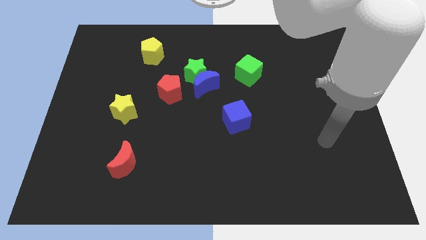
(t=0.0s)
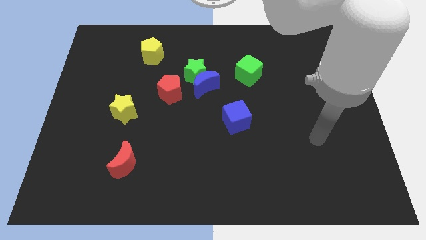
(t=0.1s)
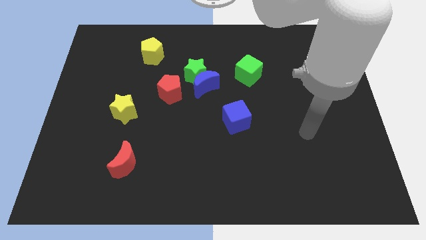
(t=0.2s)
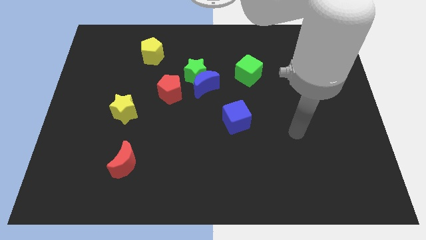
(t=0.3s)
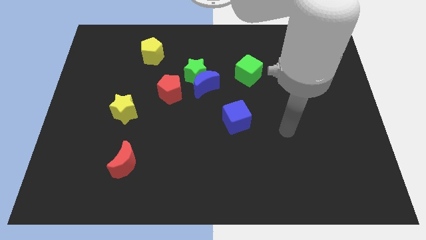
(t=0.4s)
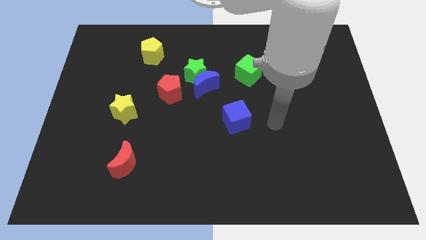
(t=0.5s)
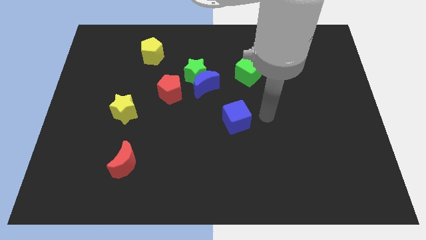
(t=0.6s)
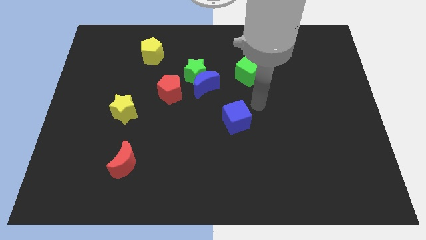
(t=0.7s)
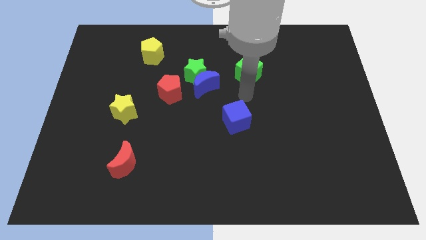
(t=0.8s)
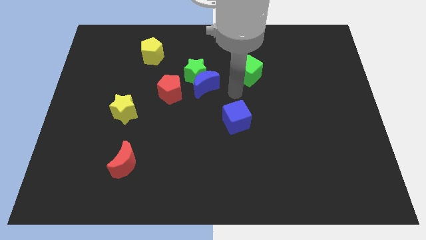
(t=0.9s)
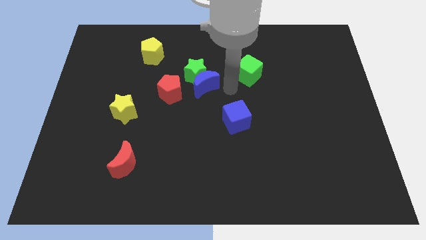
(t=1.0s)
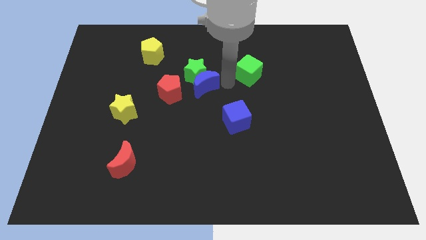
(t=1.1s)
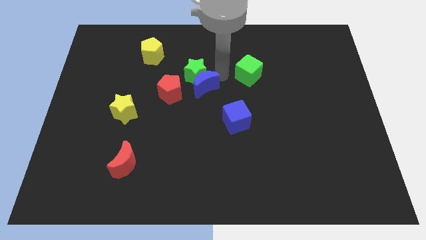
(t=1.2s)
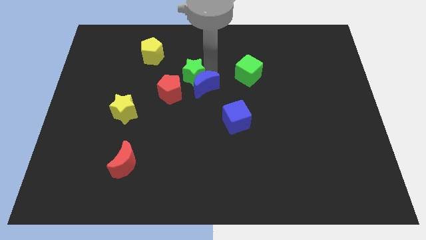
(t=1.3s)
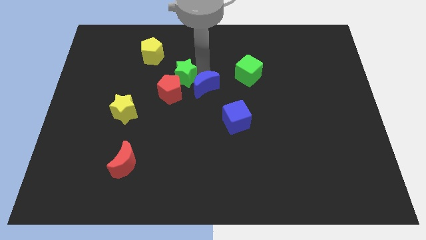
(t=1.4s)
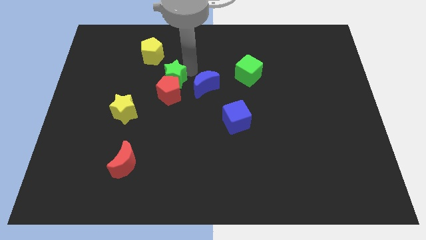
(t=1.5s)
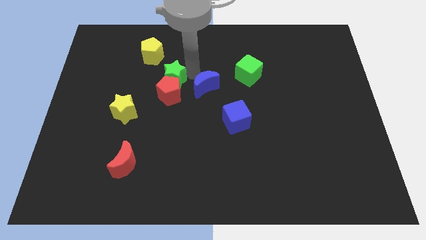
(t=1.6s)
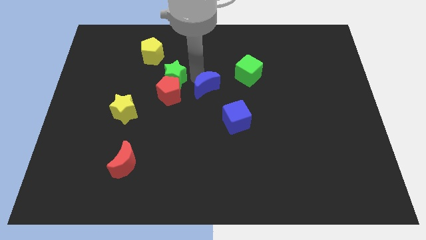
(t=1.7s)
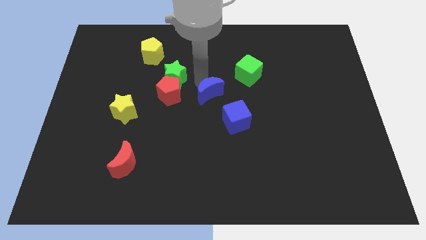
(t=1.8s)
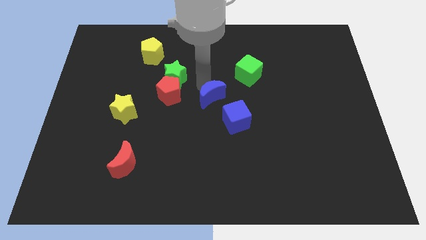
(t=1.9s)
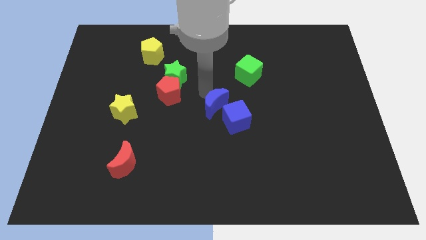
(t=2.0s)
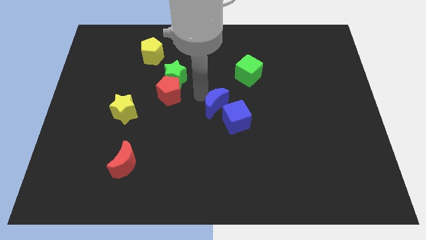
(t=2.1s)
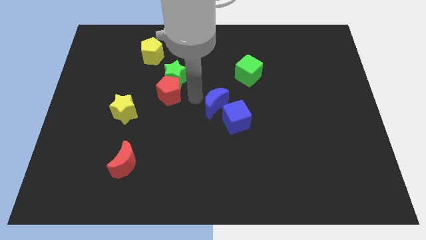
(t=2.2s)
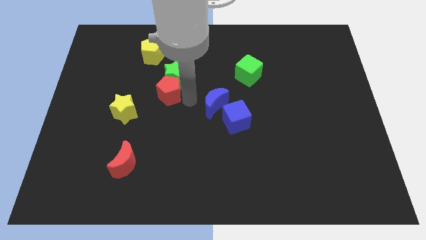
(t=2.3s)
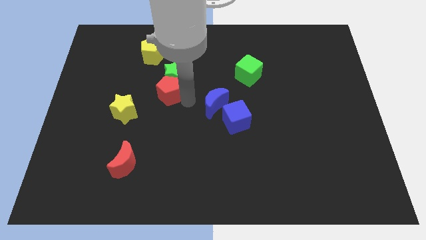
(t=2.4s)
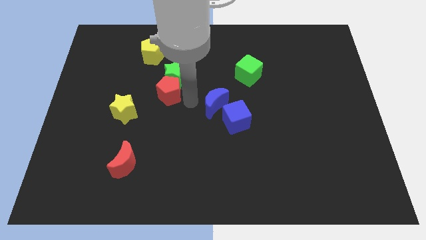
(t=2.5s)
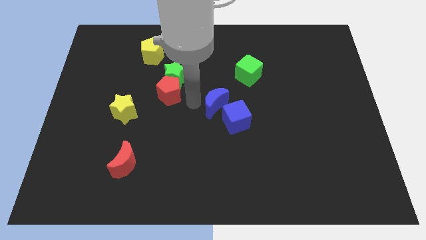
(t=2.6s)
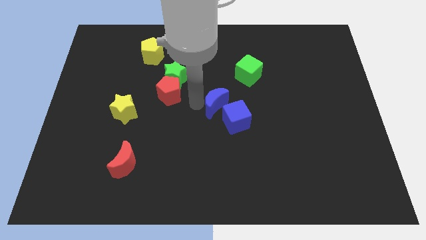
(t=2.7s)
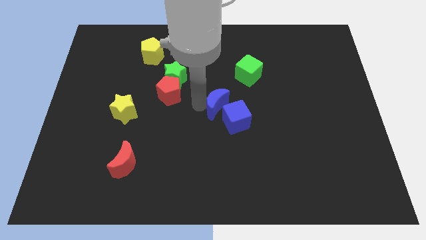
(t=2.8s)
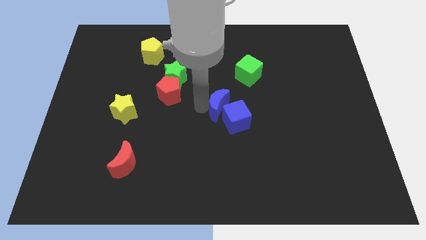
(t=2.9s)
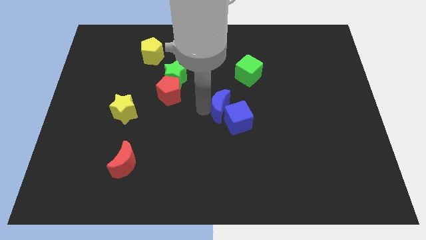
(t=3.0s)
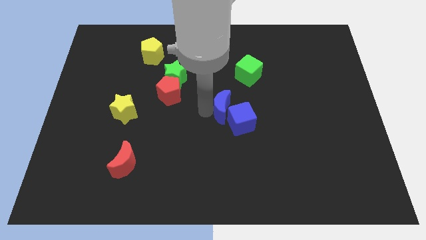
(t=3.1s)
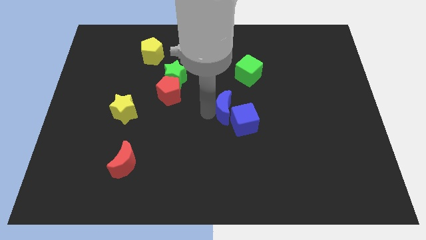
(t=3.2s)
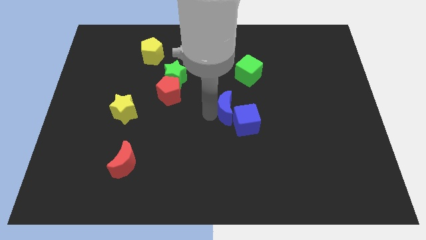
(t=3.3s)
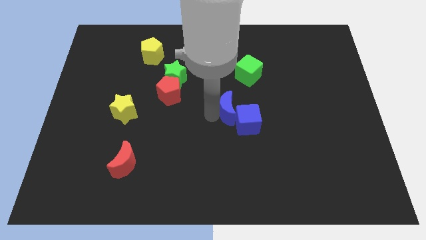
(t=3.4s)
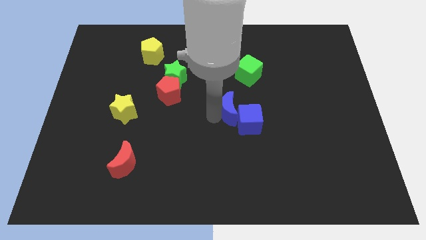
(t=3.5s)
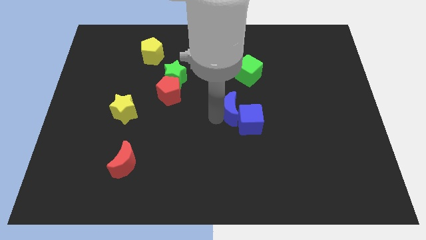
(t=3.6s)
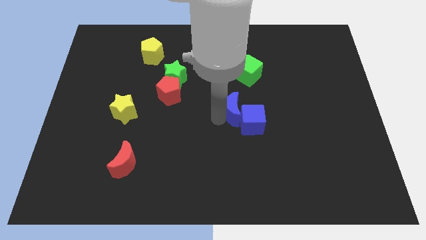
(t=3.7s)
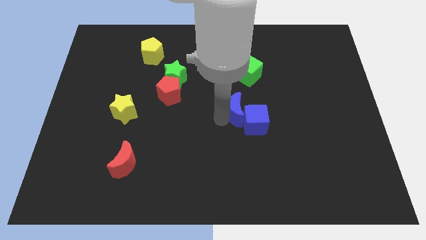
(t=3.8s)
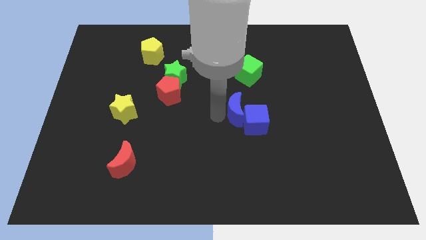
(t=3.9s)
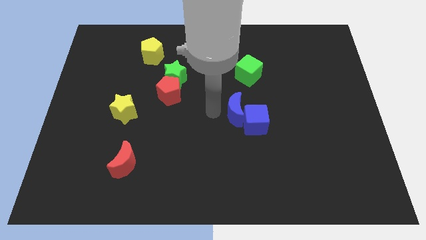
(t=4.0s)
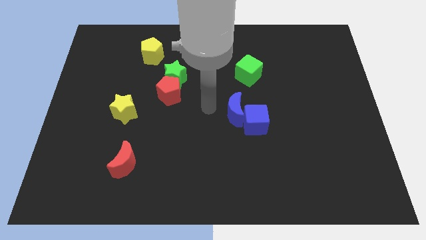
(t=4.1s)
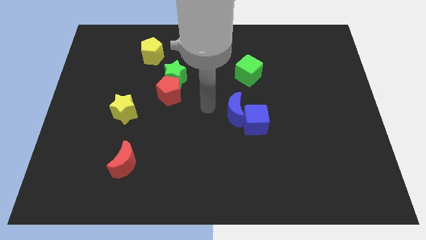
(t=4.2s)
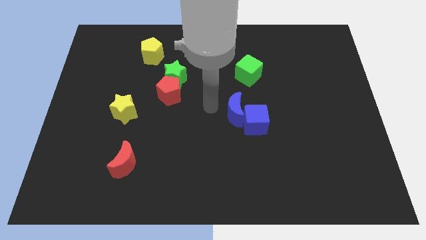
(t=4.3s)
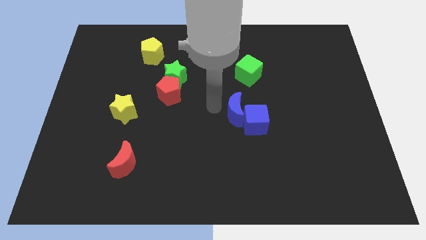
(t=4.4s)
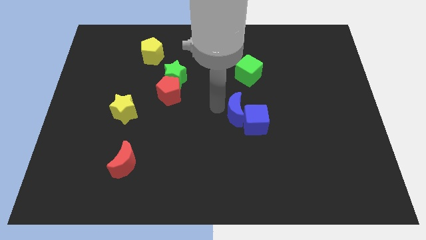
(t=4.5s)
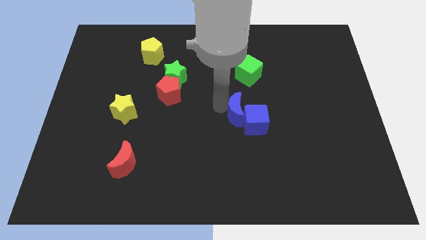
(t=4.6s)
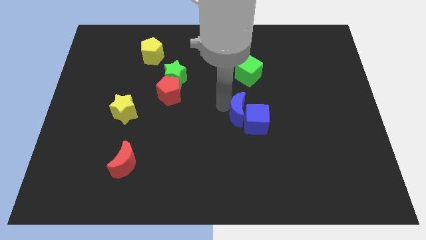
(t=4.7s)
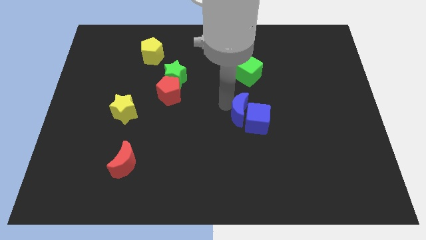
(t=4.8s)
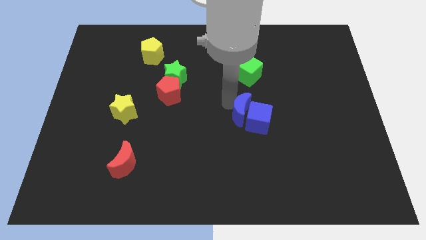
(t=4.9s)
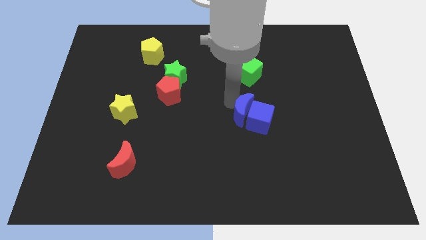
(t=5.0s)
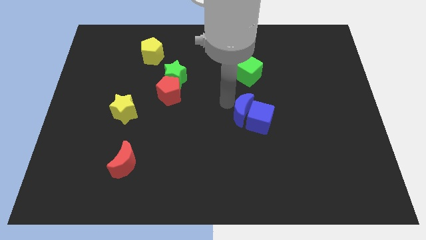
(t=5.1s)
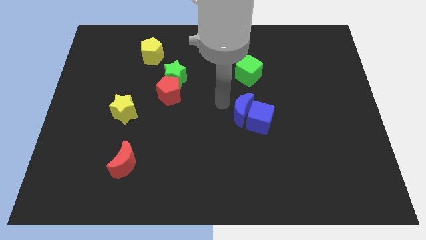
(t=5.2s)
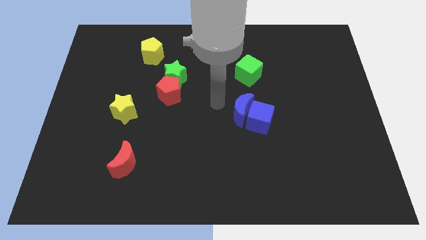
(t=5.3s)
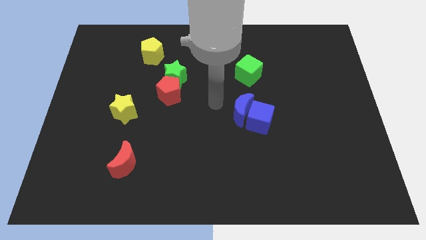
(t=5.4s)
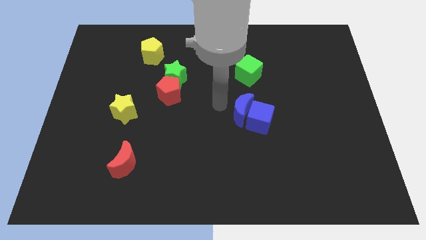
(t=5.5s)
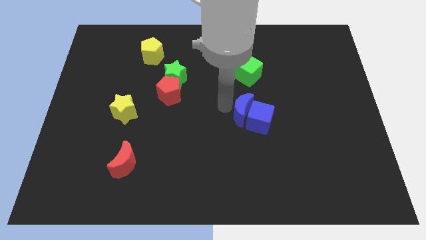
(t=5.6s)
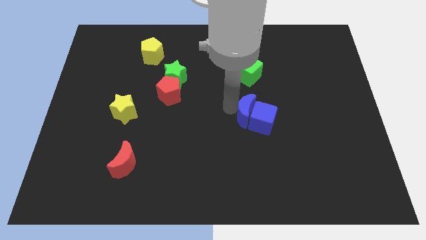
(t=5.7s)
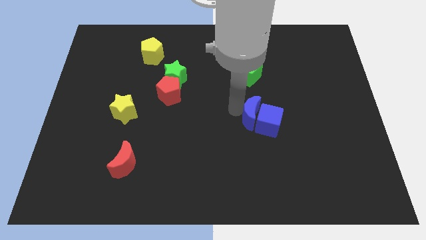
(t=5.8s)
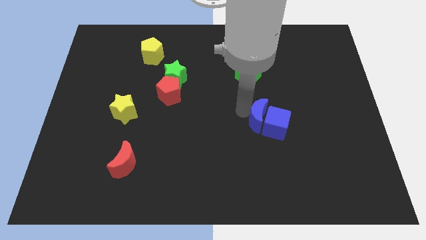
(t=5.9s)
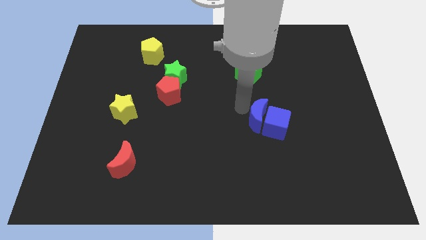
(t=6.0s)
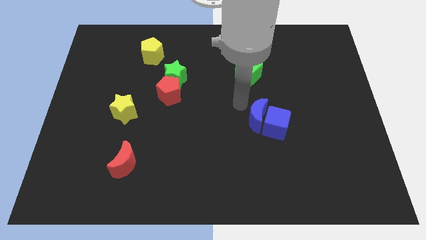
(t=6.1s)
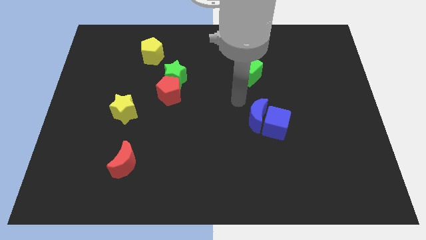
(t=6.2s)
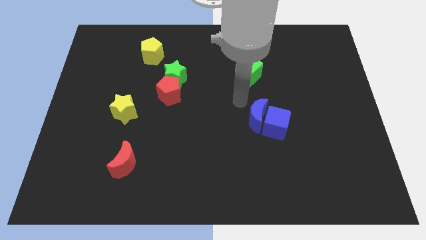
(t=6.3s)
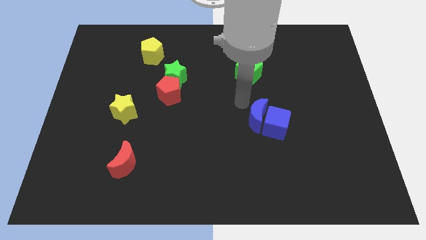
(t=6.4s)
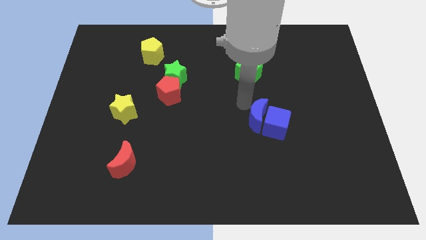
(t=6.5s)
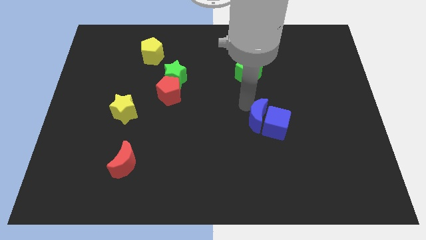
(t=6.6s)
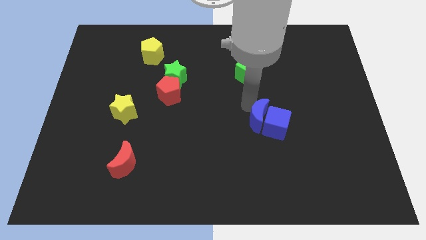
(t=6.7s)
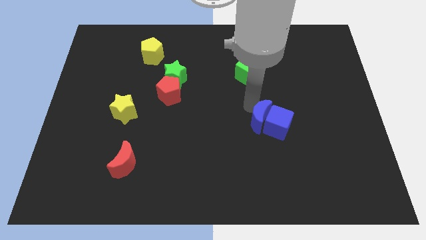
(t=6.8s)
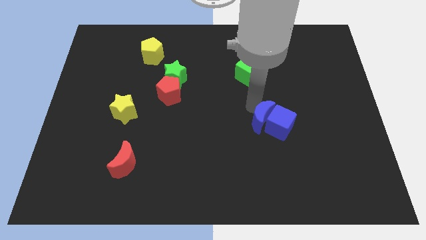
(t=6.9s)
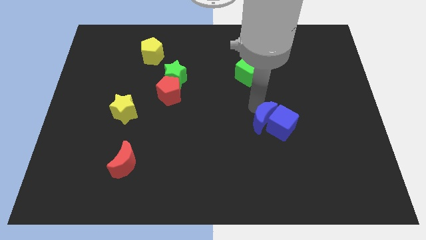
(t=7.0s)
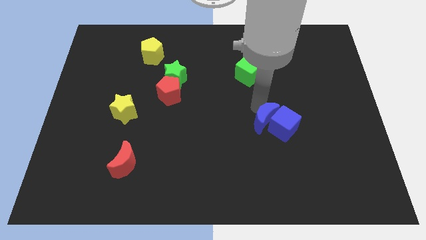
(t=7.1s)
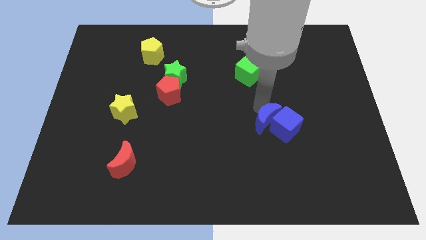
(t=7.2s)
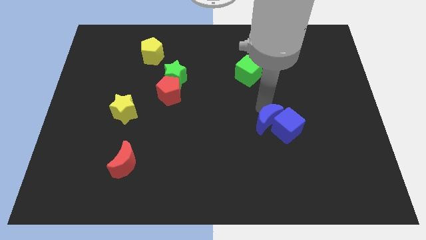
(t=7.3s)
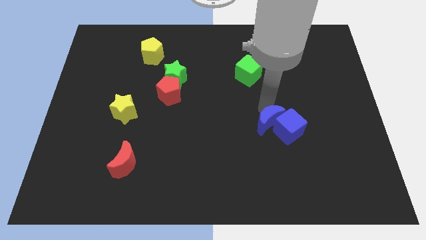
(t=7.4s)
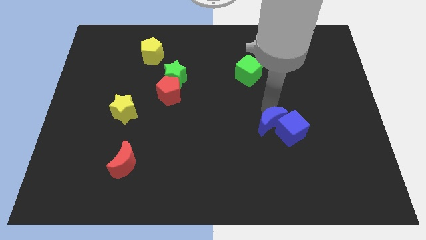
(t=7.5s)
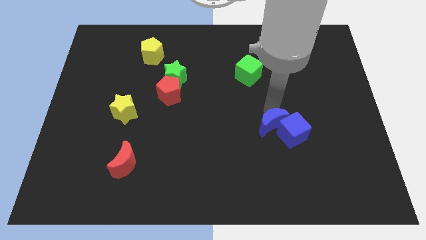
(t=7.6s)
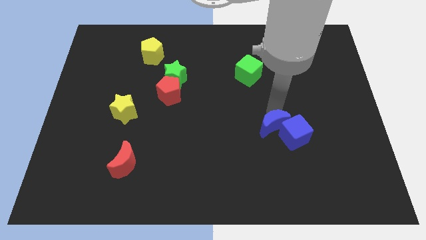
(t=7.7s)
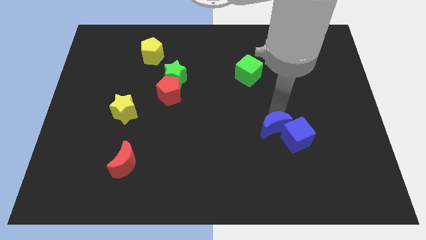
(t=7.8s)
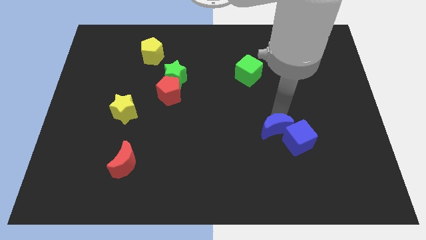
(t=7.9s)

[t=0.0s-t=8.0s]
move the blue moon downwards and to the right
